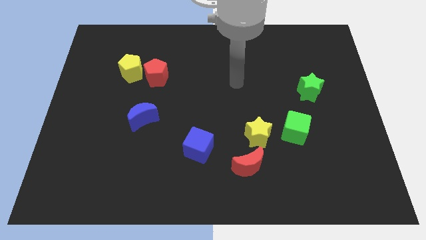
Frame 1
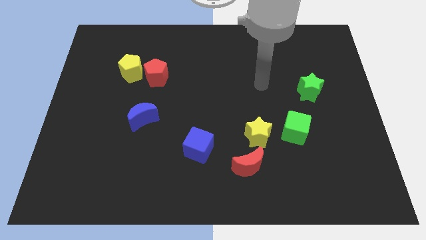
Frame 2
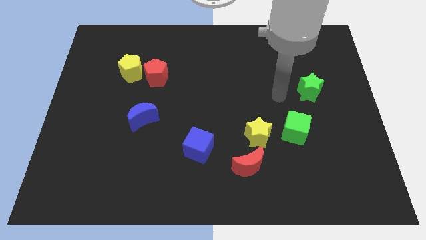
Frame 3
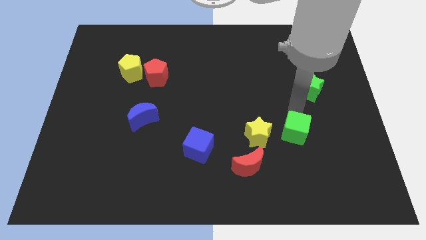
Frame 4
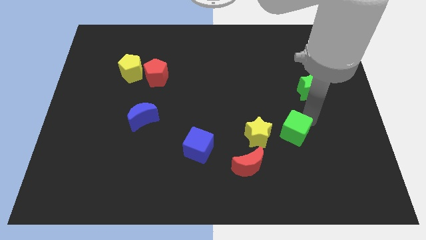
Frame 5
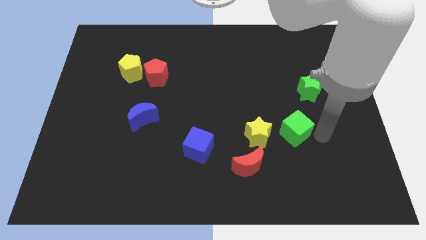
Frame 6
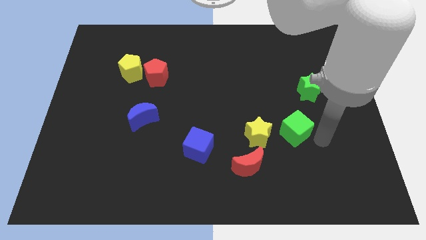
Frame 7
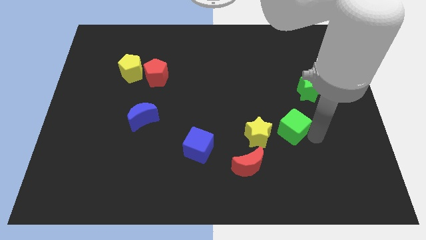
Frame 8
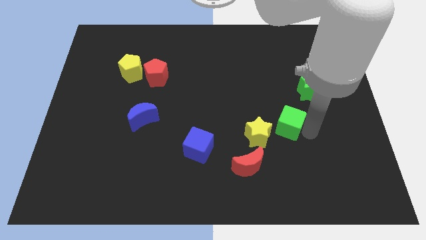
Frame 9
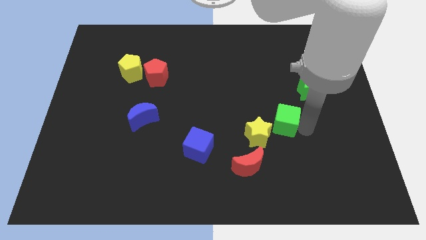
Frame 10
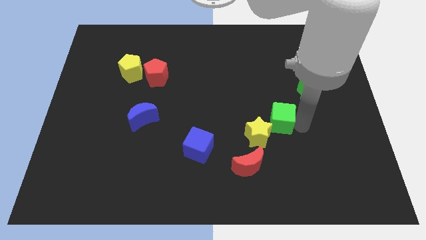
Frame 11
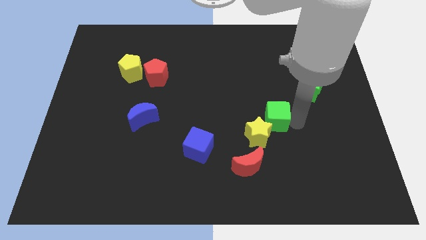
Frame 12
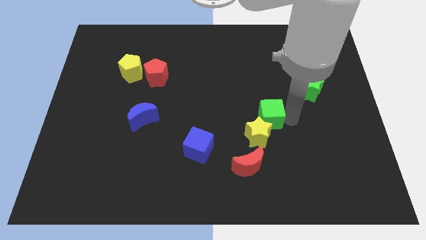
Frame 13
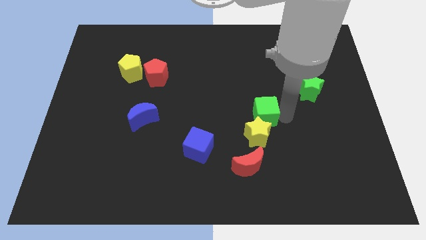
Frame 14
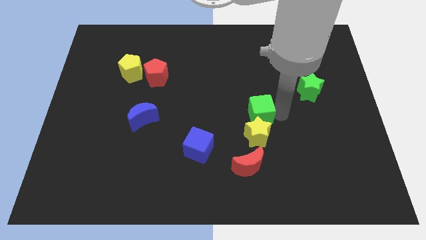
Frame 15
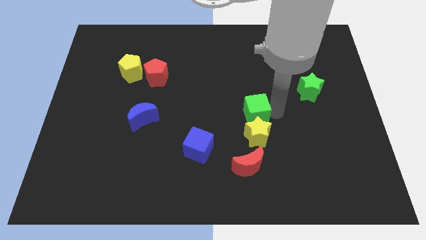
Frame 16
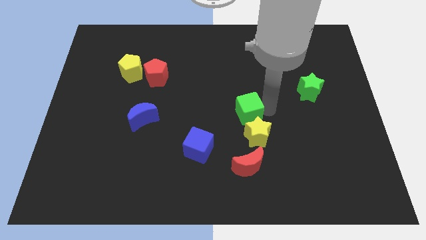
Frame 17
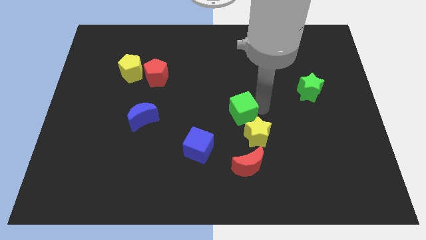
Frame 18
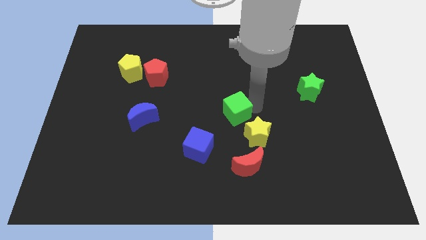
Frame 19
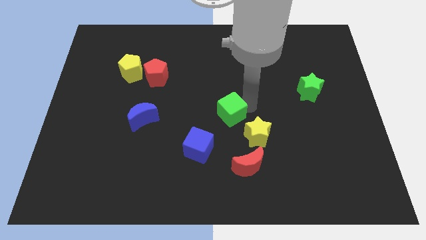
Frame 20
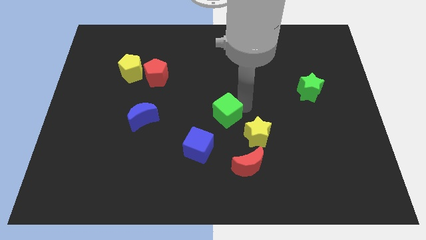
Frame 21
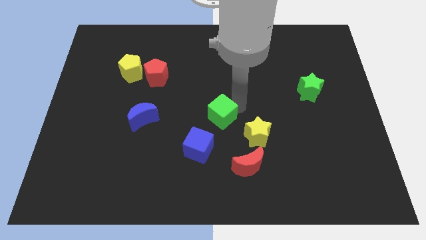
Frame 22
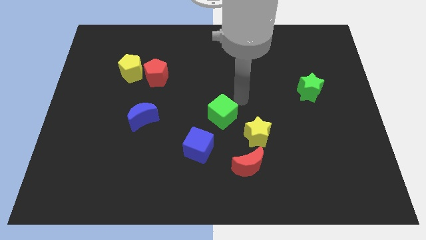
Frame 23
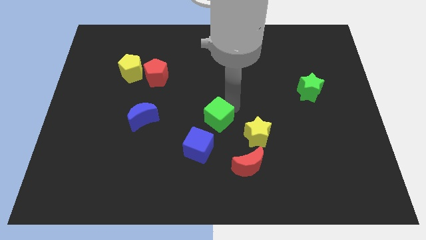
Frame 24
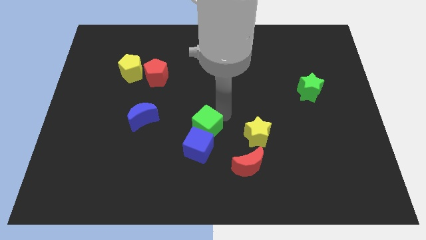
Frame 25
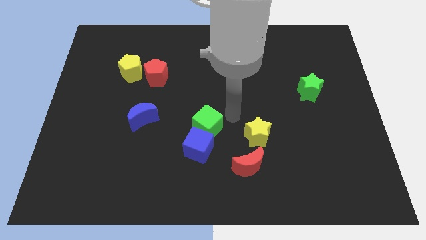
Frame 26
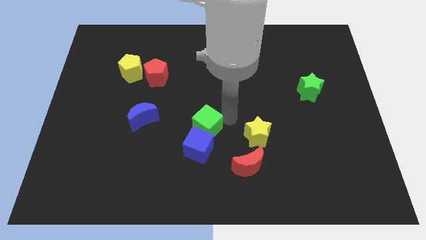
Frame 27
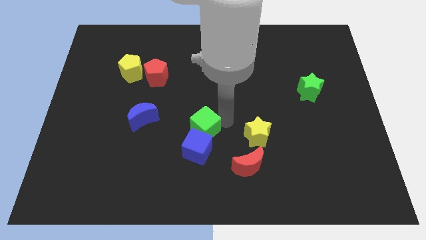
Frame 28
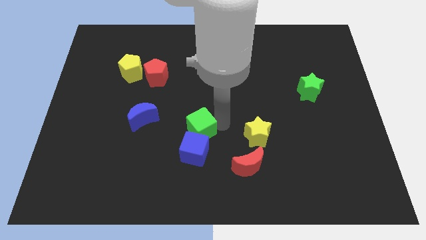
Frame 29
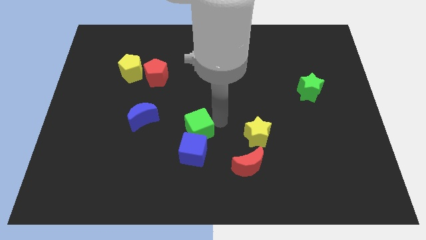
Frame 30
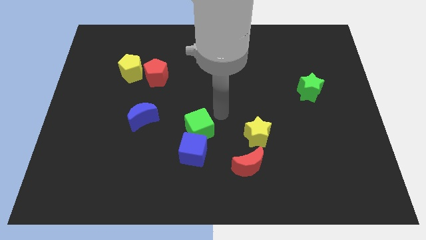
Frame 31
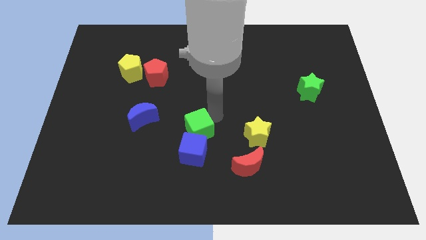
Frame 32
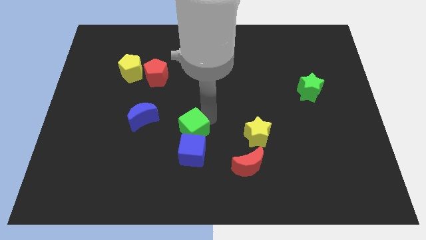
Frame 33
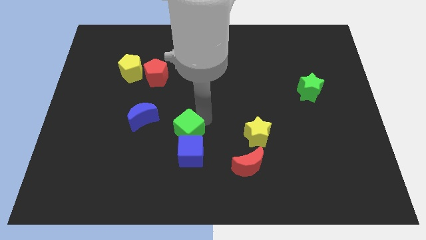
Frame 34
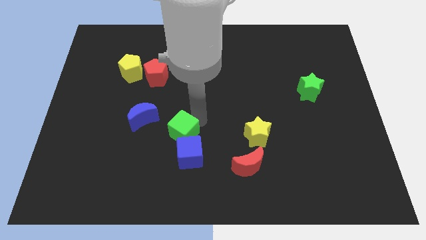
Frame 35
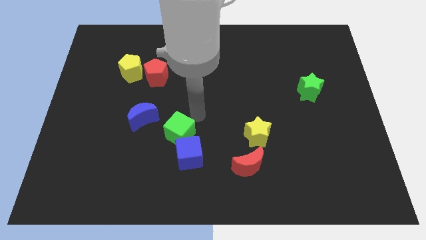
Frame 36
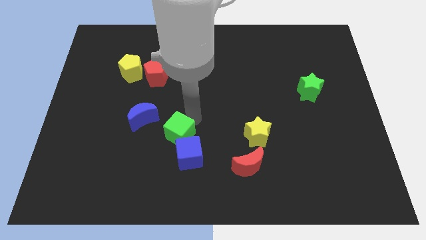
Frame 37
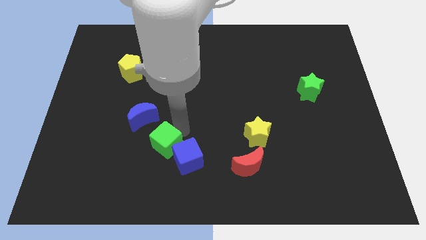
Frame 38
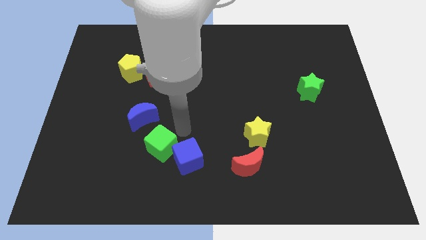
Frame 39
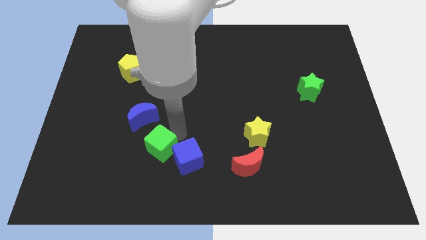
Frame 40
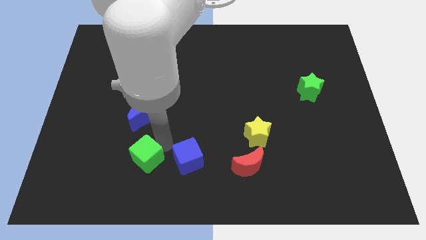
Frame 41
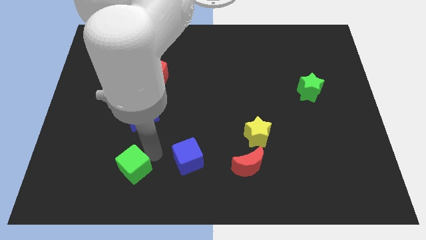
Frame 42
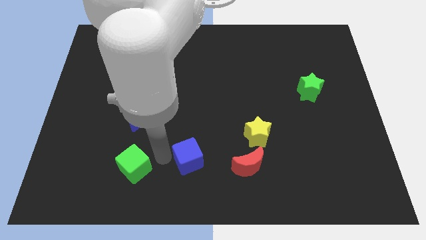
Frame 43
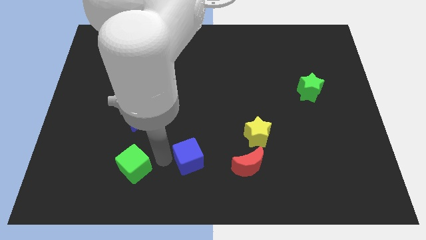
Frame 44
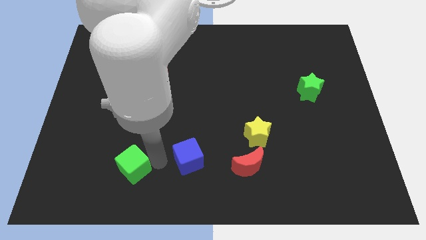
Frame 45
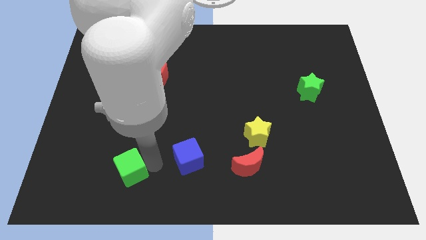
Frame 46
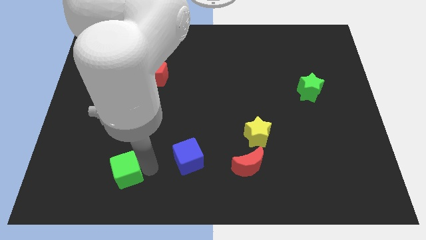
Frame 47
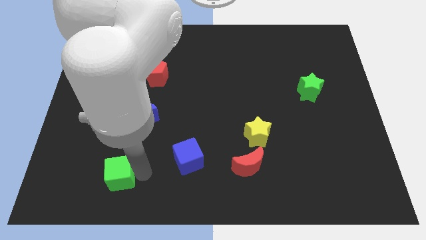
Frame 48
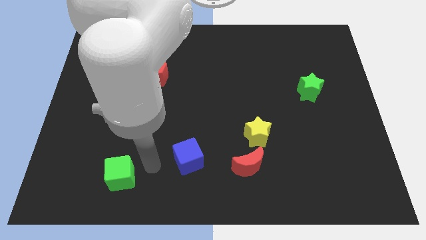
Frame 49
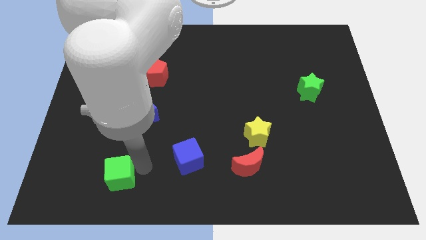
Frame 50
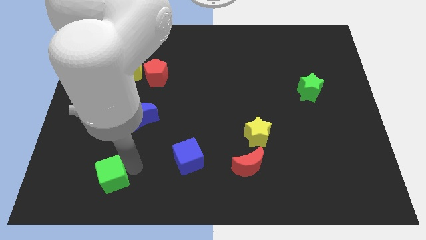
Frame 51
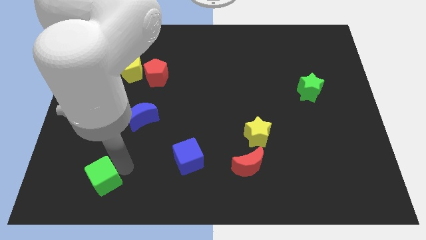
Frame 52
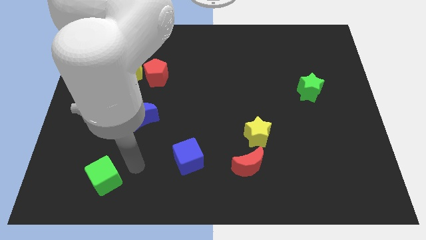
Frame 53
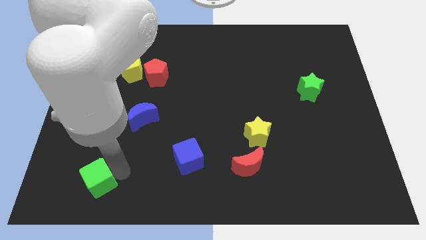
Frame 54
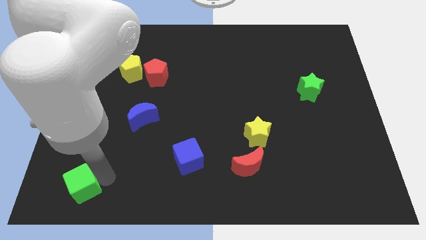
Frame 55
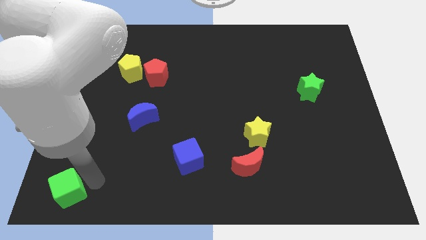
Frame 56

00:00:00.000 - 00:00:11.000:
push the green cube to the lower left corner
